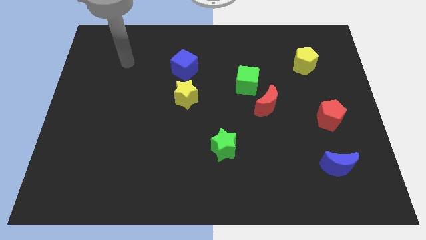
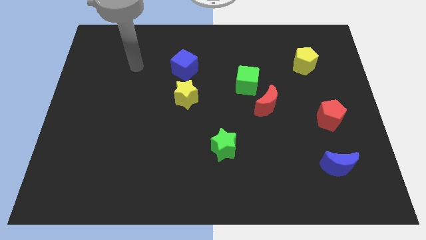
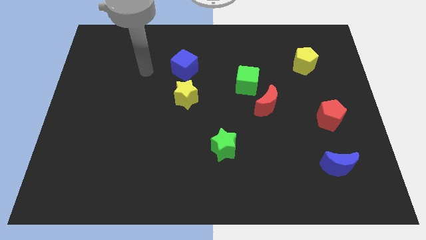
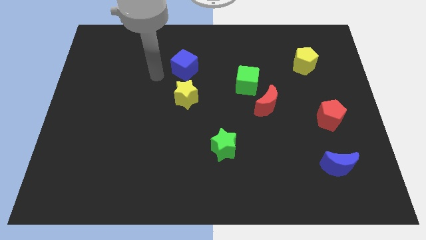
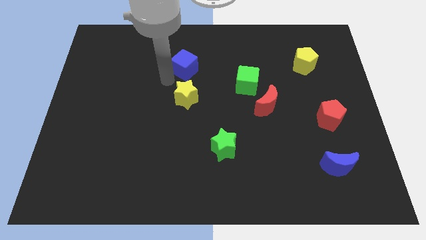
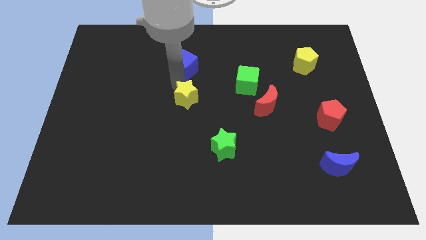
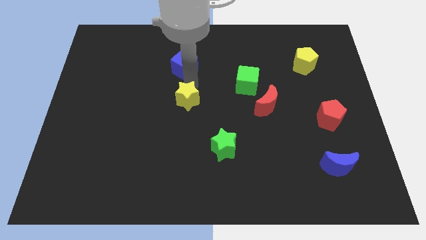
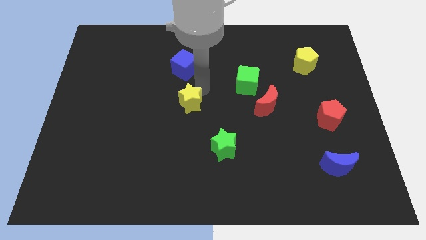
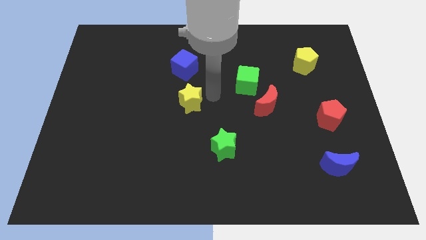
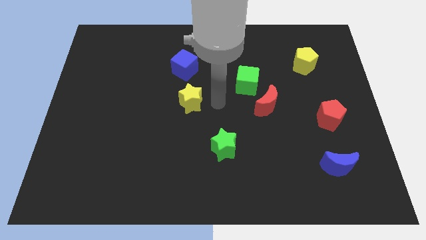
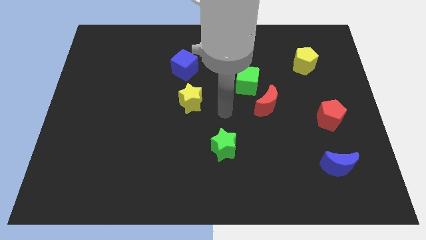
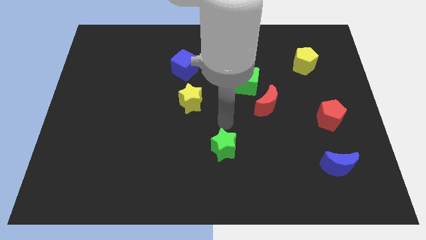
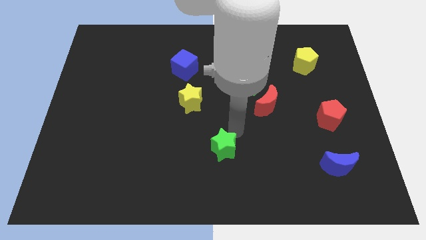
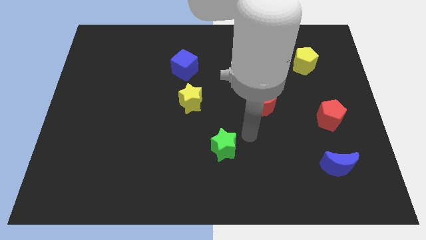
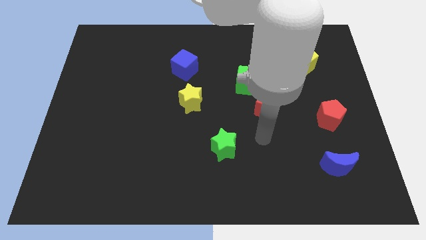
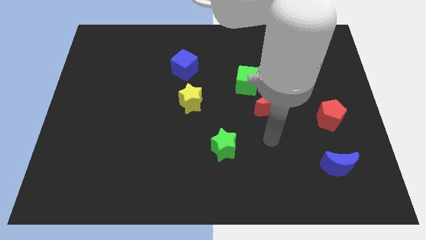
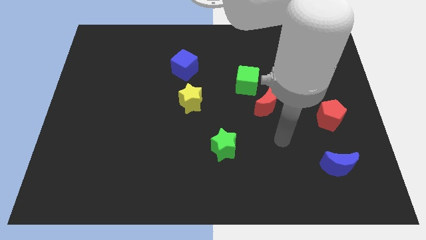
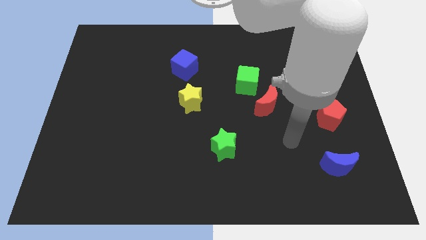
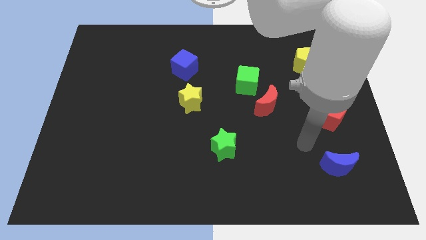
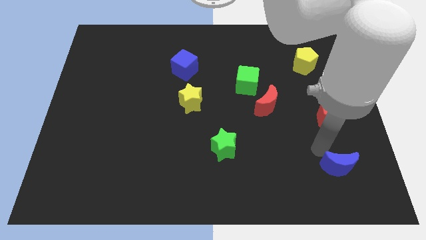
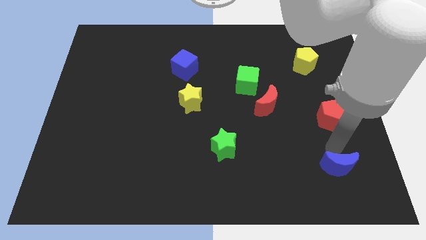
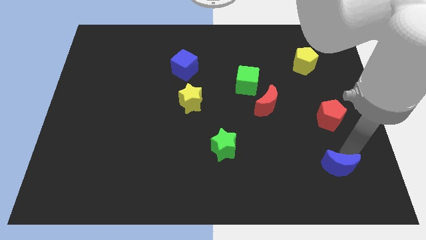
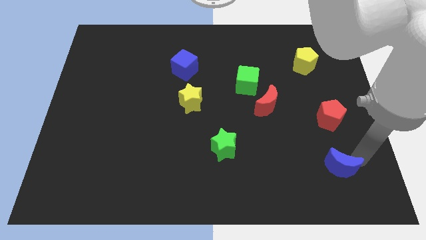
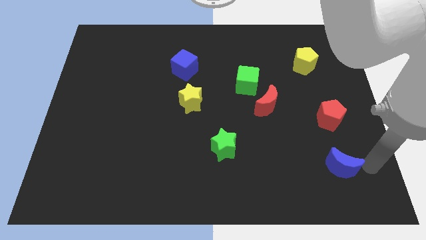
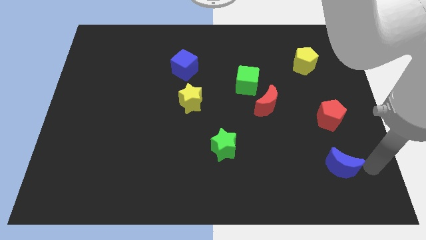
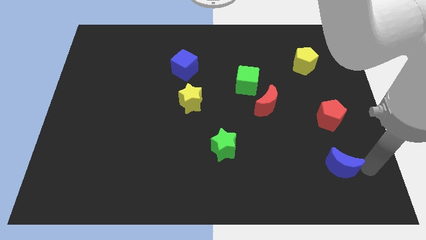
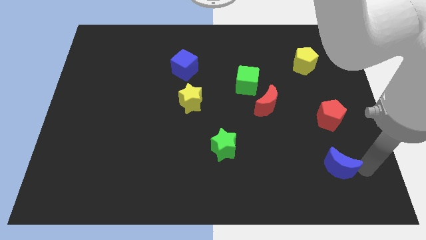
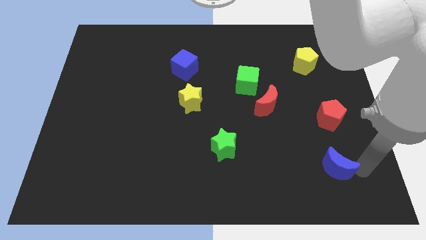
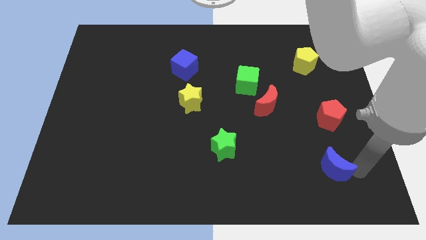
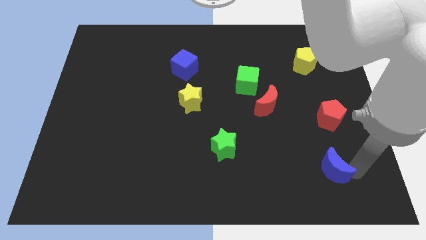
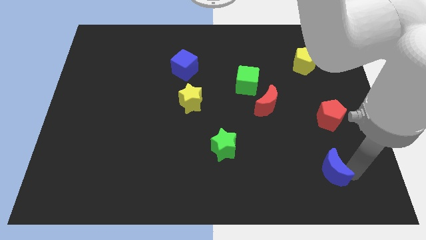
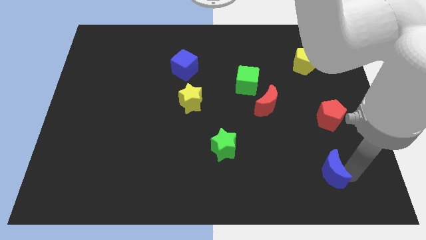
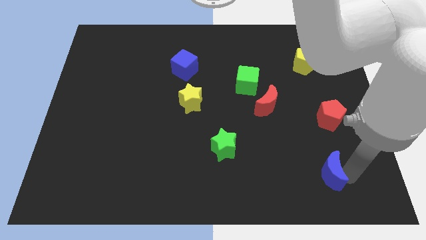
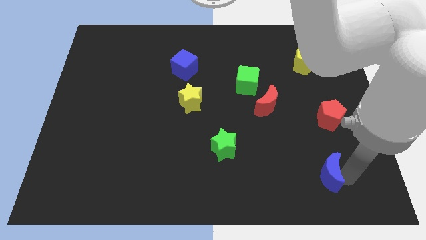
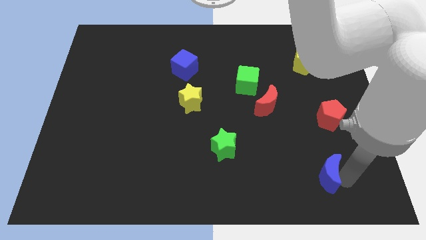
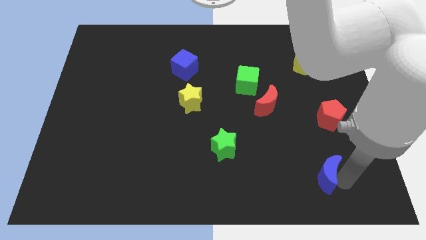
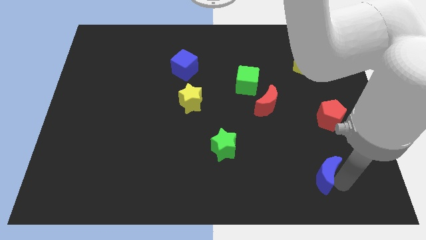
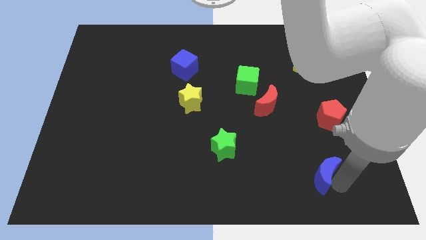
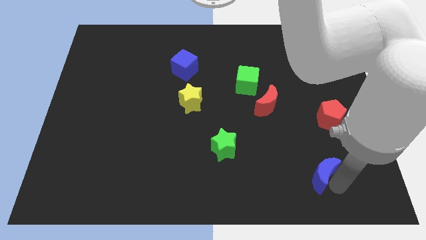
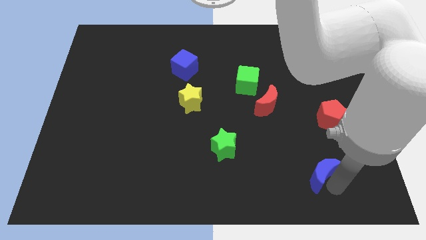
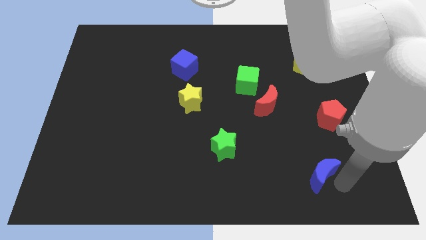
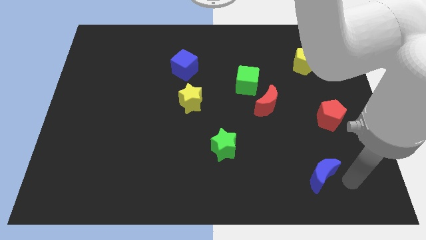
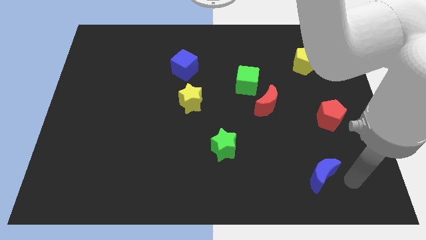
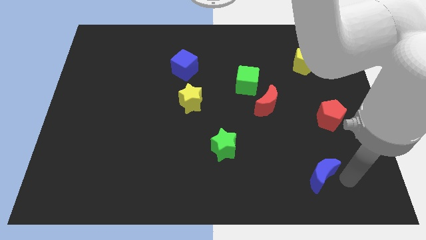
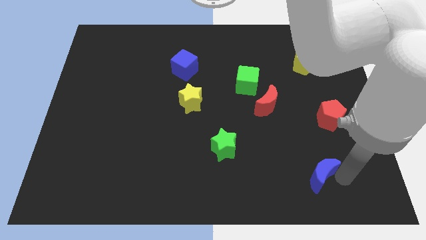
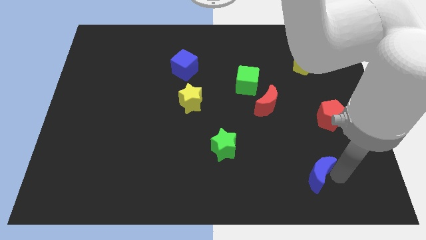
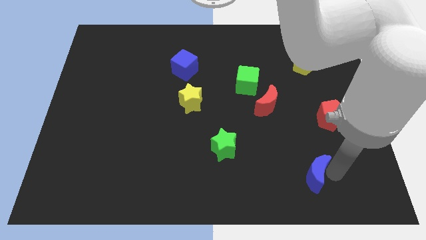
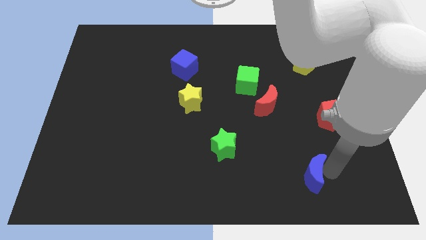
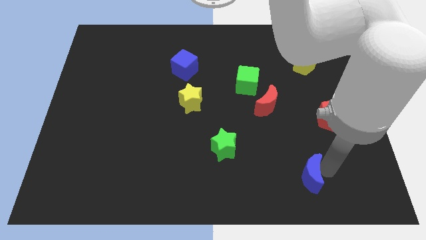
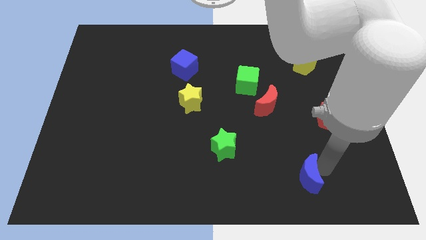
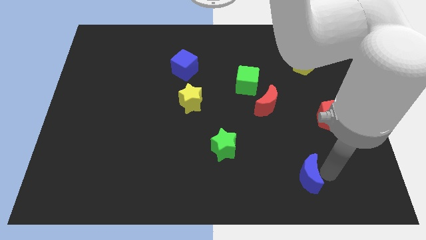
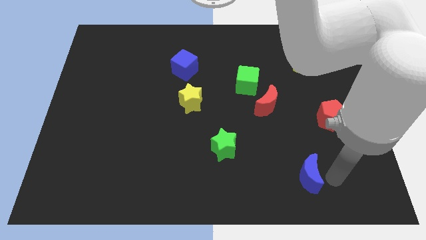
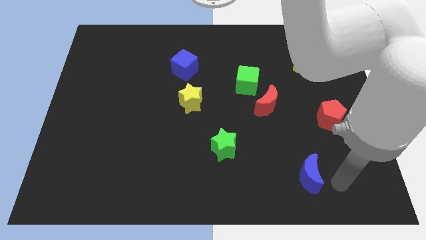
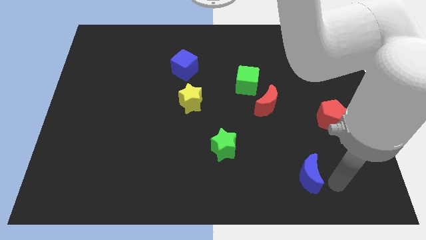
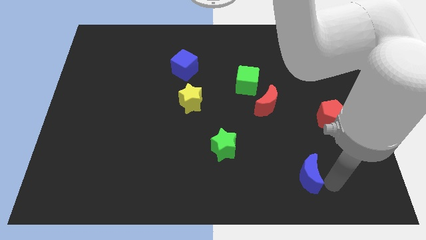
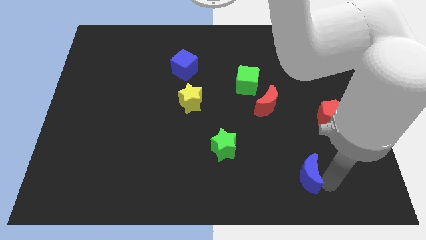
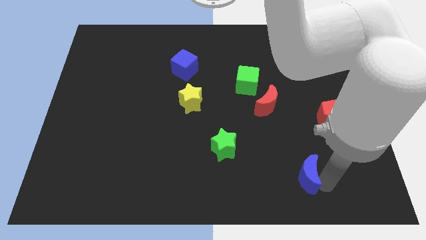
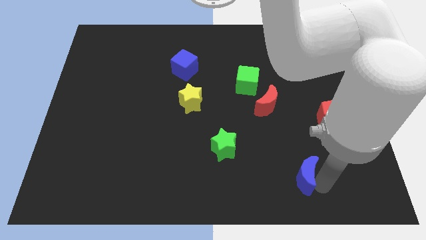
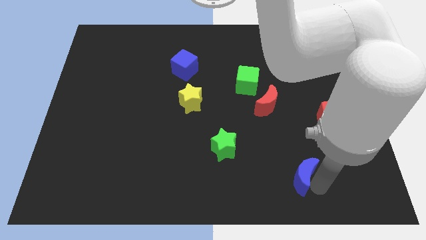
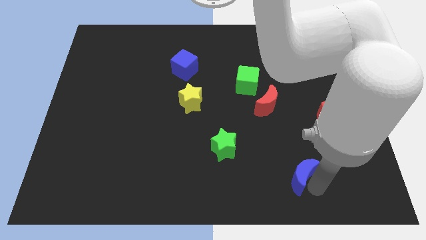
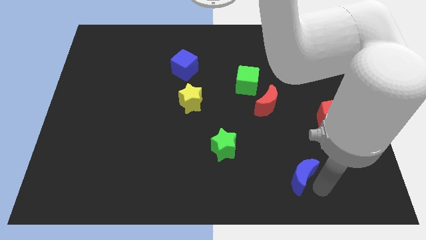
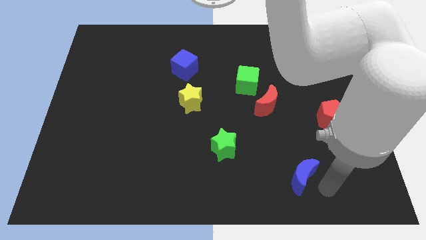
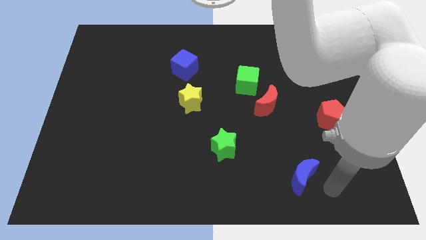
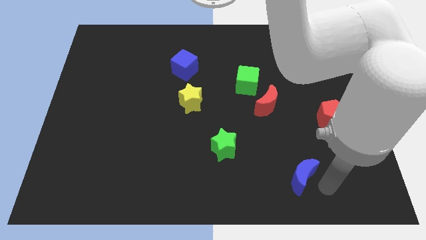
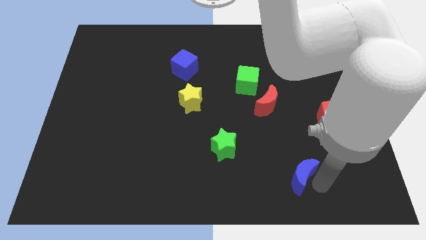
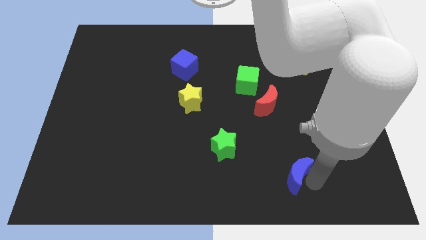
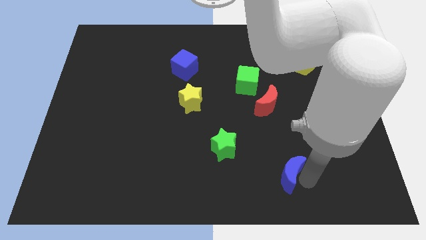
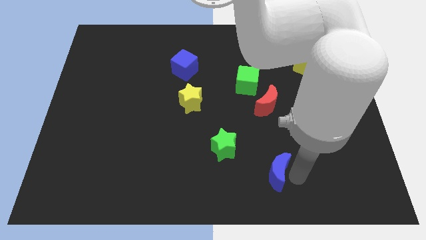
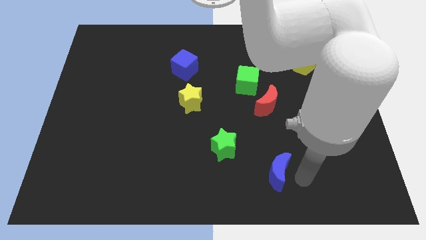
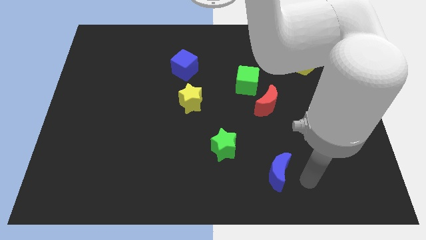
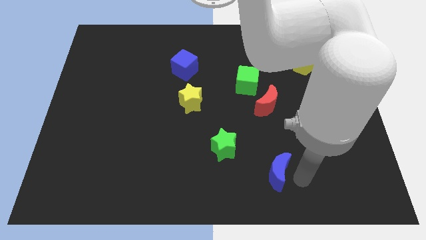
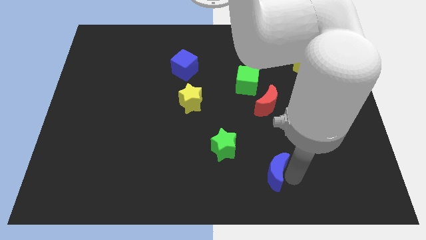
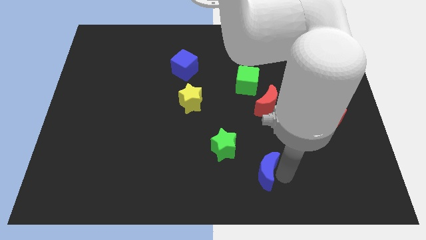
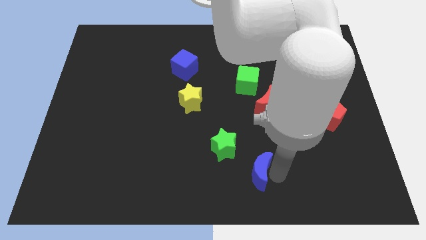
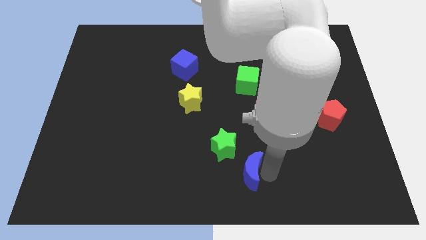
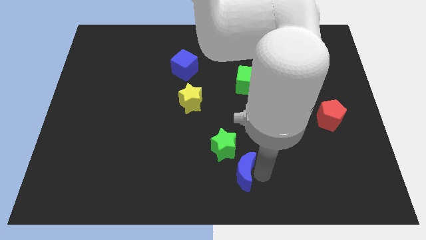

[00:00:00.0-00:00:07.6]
push the blue moon to the left

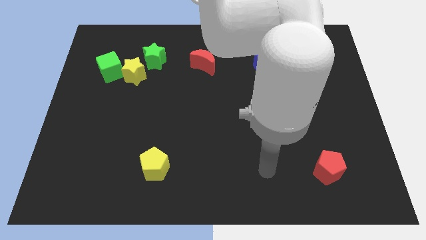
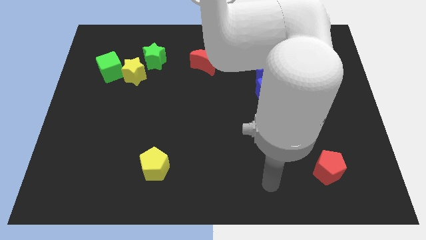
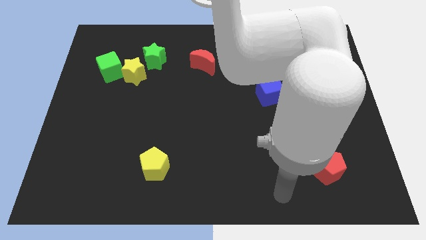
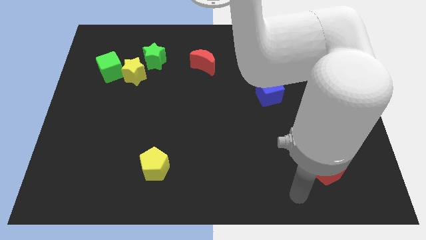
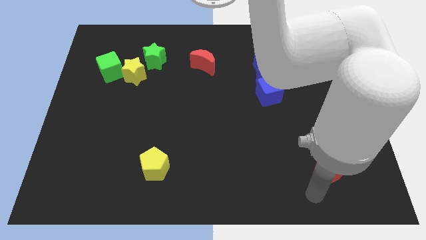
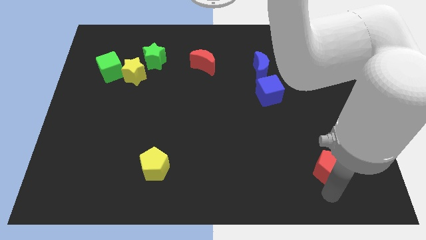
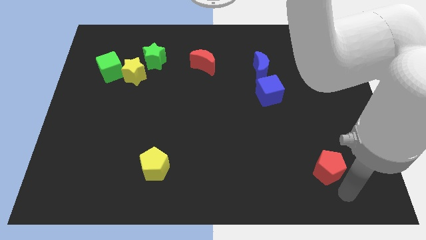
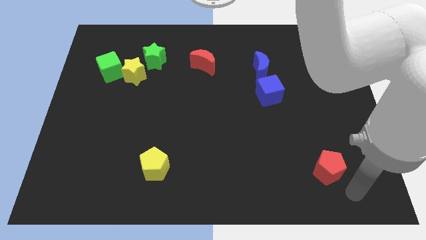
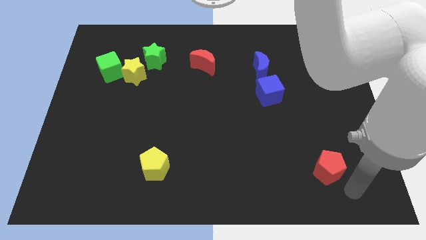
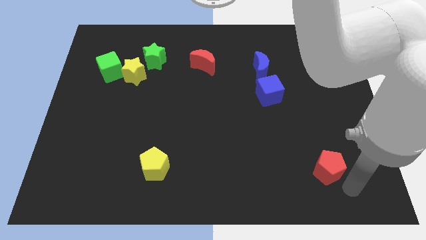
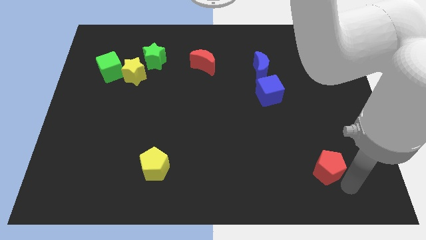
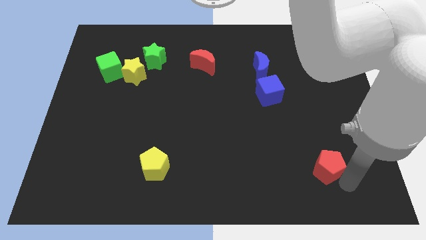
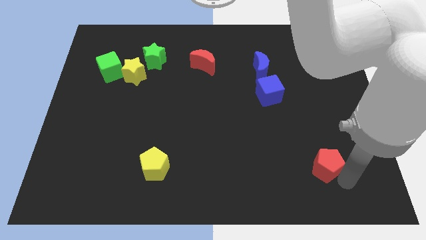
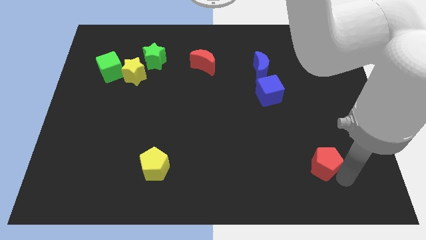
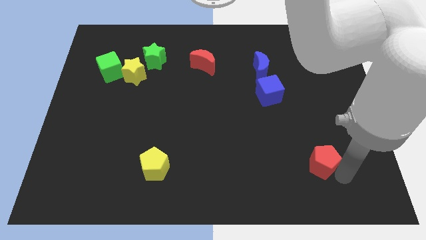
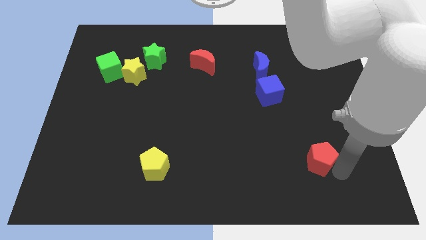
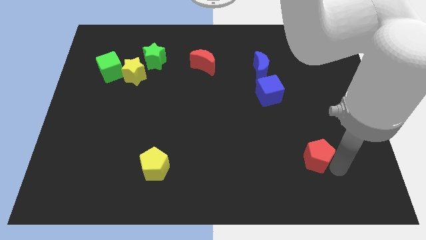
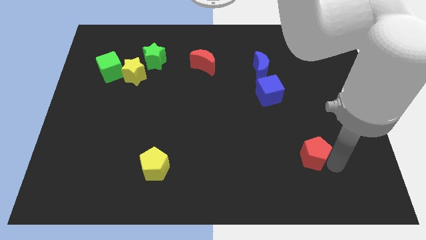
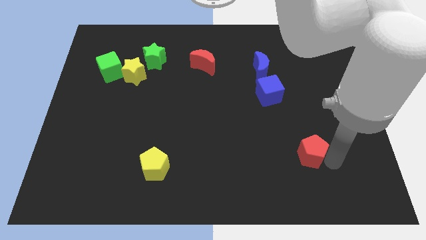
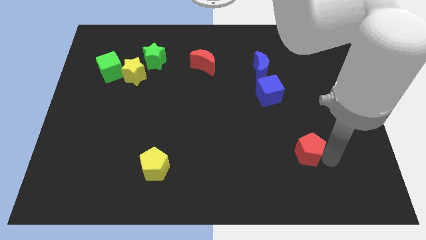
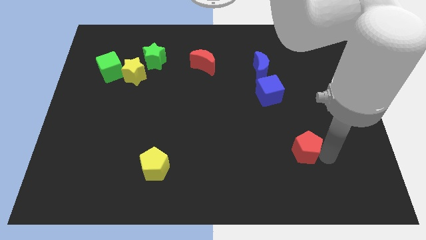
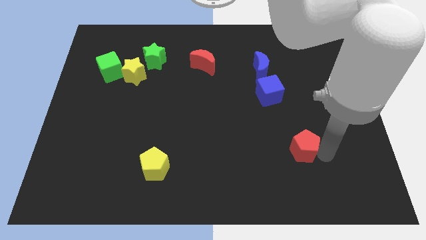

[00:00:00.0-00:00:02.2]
slightly move the red pentagon upwards and left
